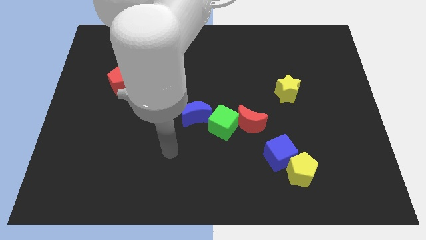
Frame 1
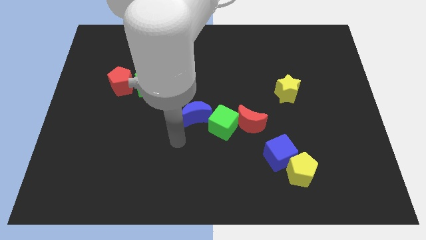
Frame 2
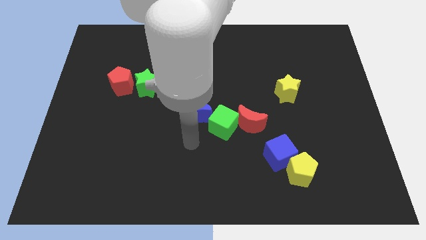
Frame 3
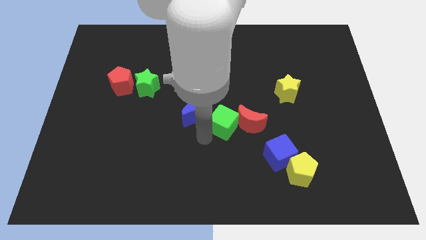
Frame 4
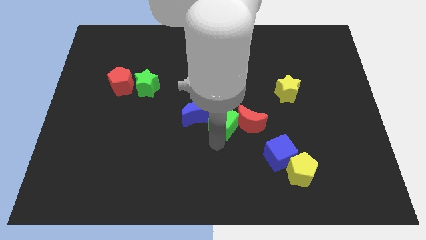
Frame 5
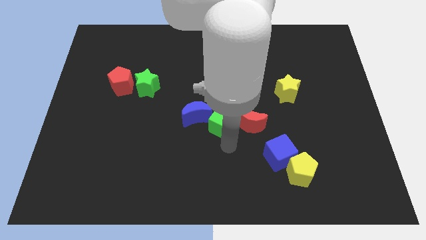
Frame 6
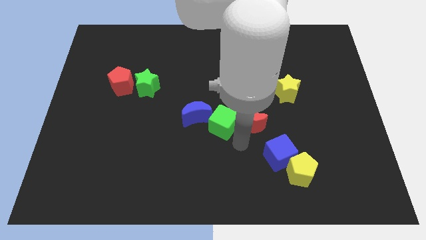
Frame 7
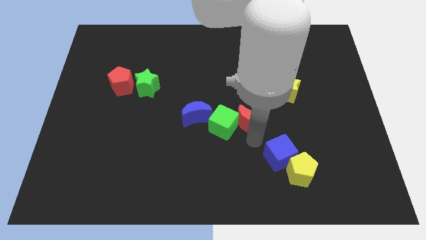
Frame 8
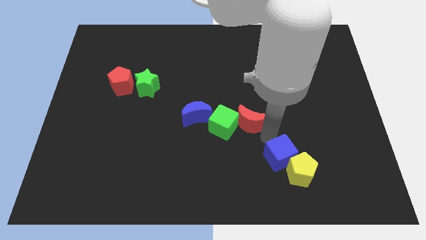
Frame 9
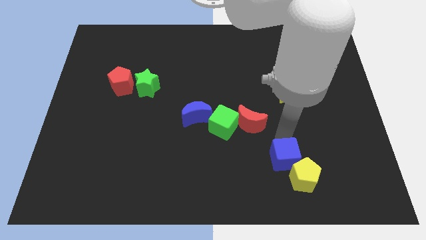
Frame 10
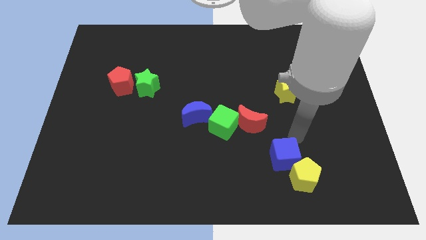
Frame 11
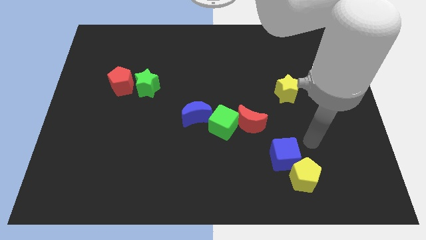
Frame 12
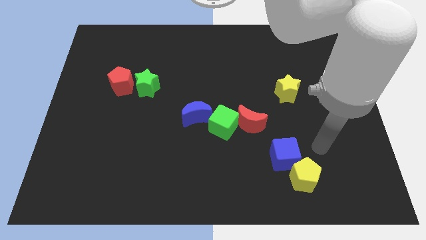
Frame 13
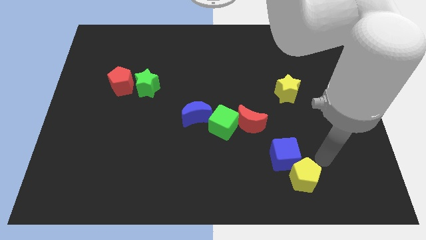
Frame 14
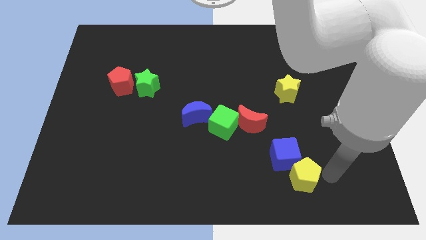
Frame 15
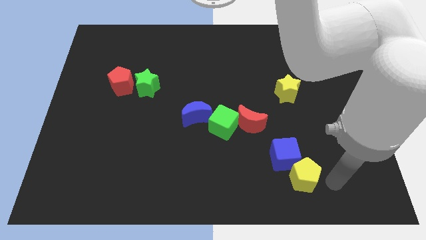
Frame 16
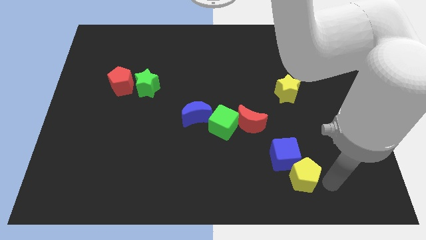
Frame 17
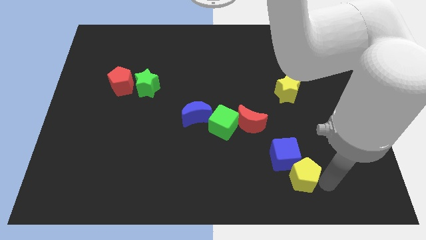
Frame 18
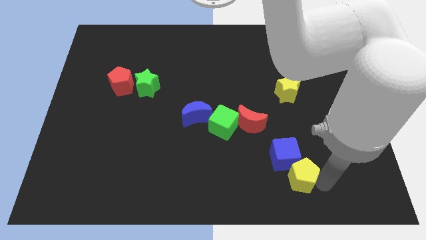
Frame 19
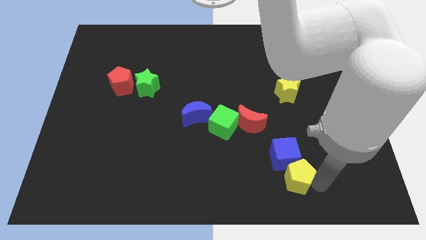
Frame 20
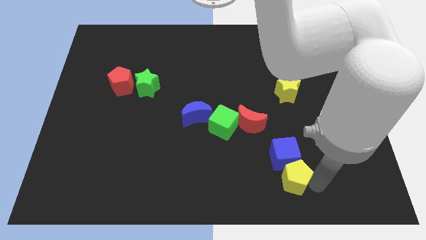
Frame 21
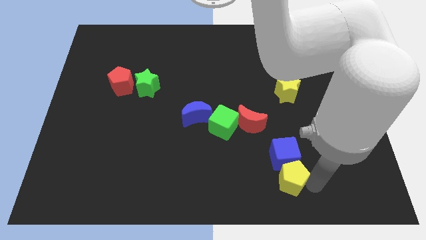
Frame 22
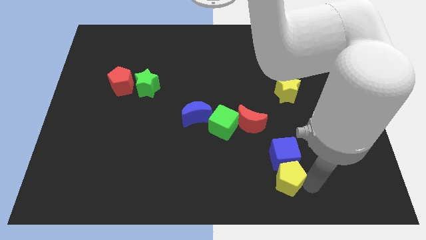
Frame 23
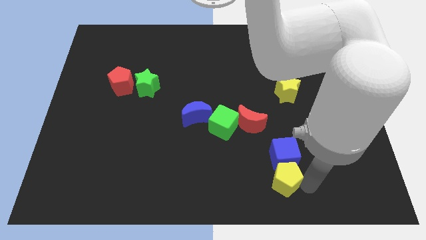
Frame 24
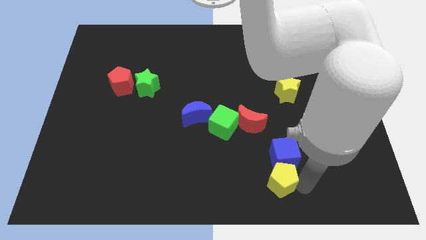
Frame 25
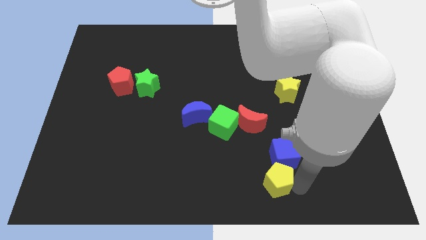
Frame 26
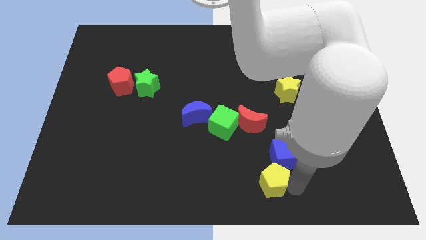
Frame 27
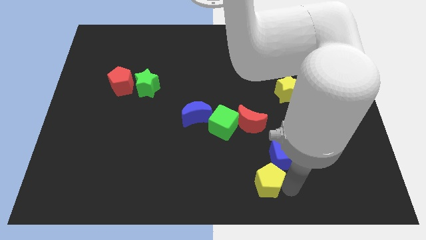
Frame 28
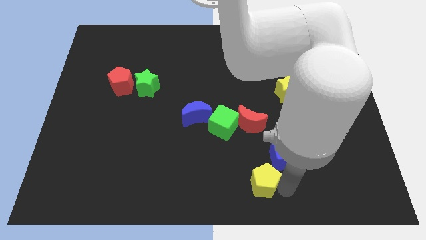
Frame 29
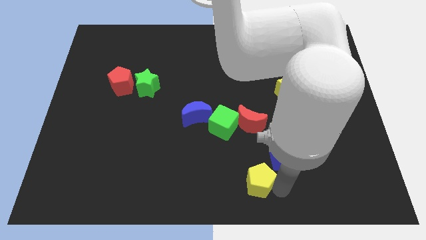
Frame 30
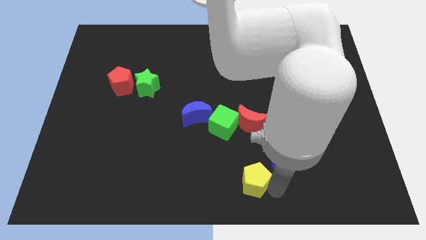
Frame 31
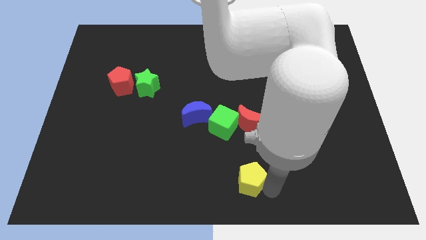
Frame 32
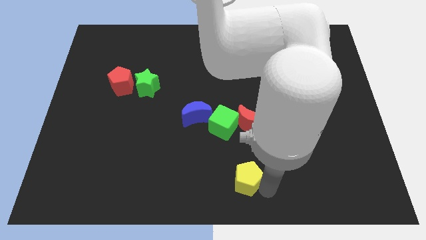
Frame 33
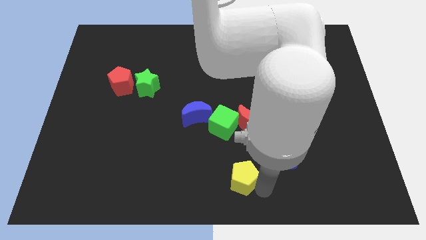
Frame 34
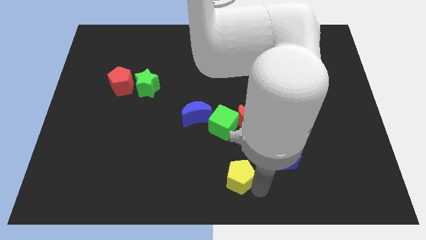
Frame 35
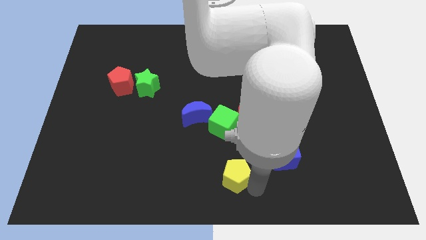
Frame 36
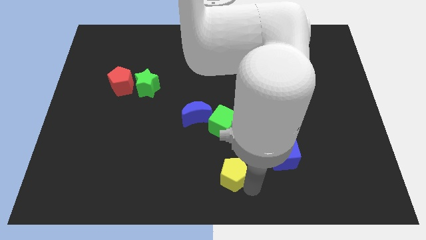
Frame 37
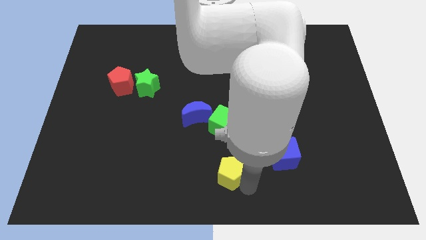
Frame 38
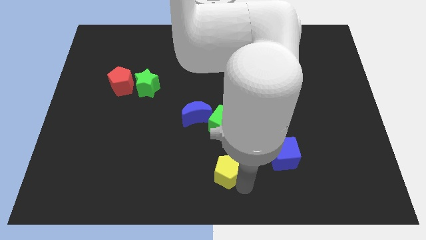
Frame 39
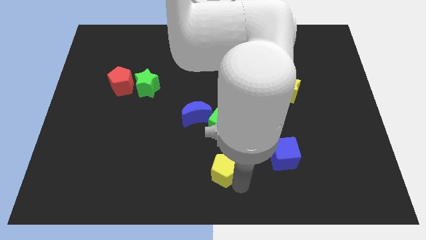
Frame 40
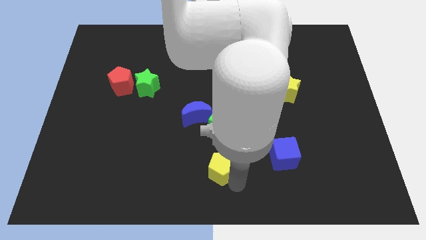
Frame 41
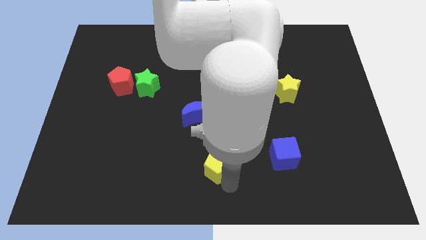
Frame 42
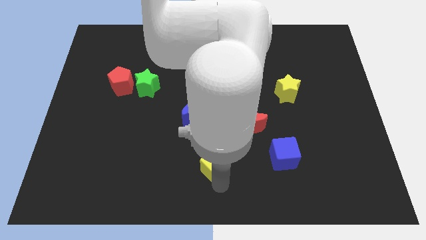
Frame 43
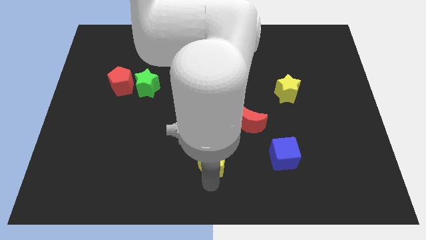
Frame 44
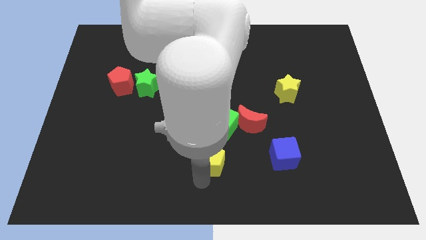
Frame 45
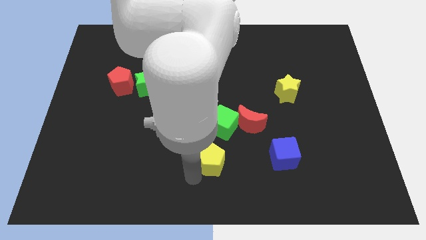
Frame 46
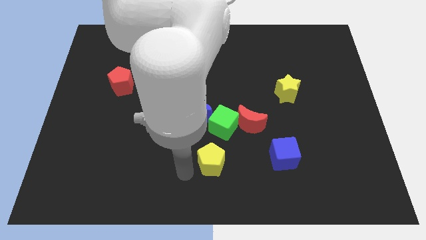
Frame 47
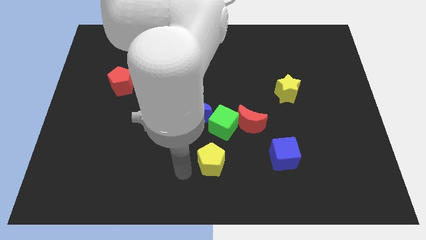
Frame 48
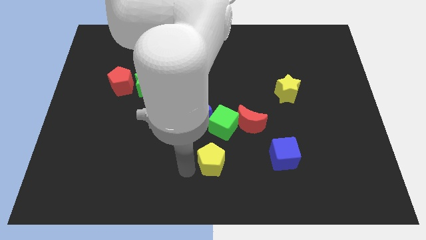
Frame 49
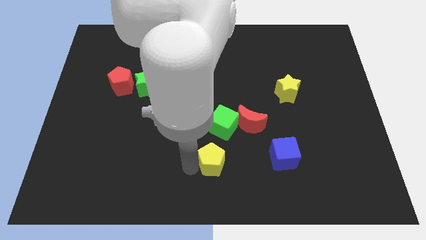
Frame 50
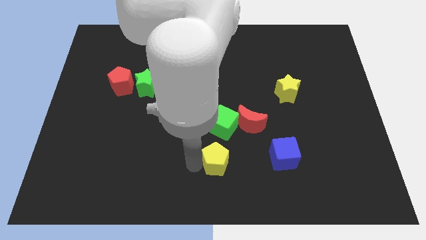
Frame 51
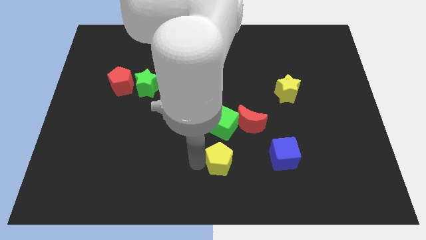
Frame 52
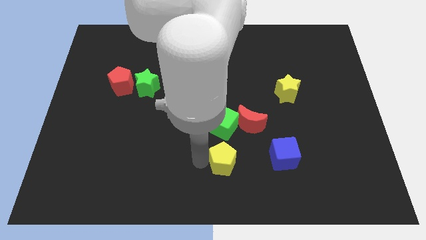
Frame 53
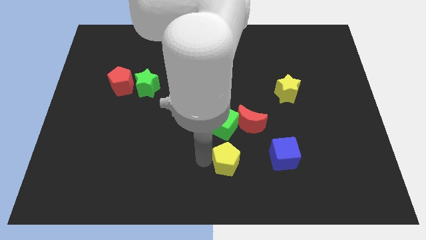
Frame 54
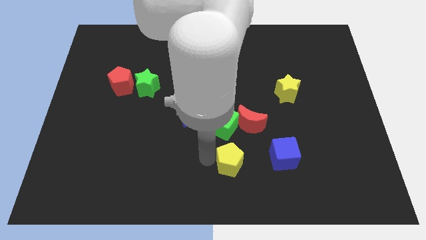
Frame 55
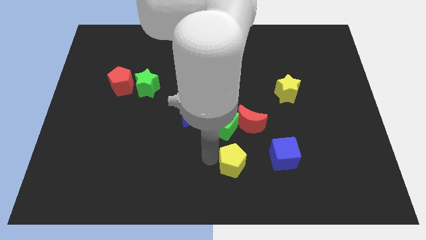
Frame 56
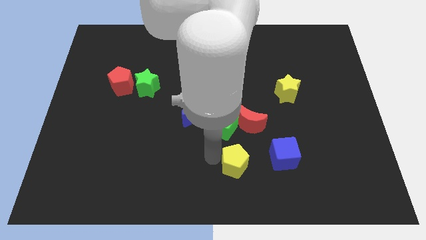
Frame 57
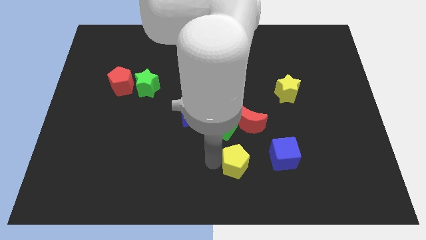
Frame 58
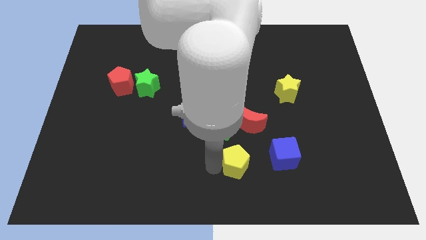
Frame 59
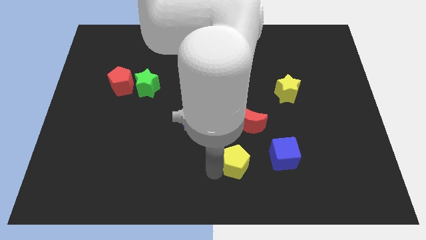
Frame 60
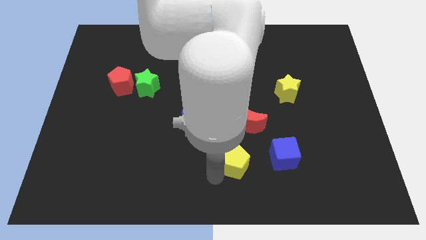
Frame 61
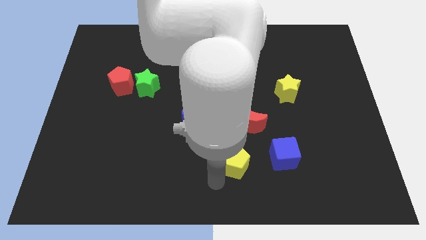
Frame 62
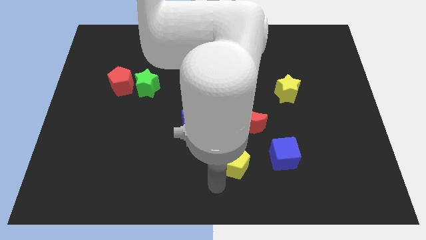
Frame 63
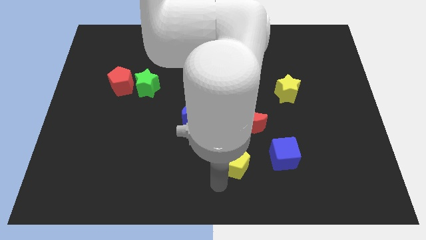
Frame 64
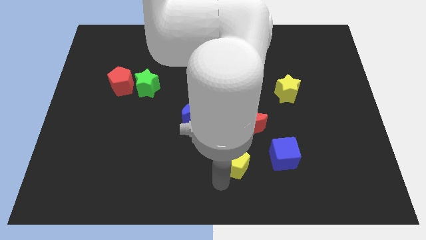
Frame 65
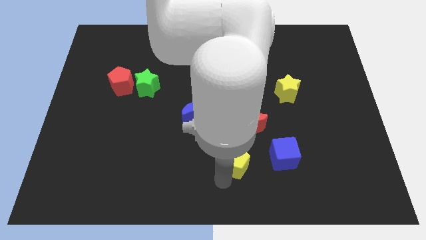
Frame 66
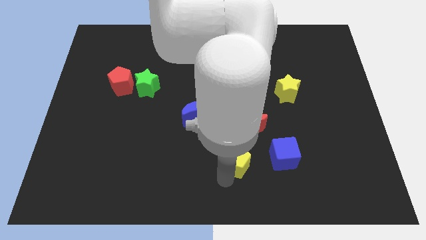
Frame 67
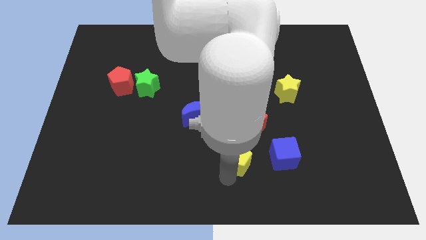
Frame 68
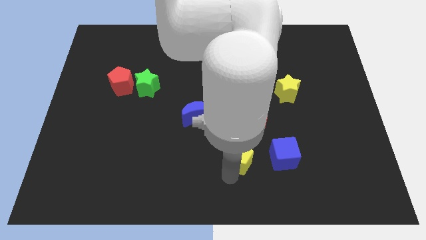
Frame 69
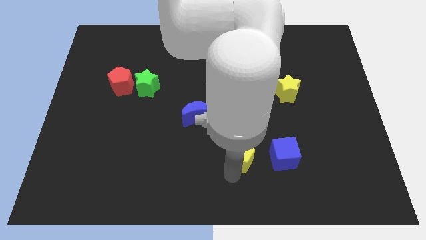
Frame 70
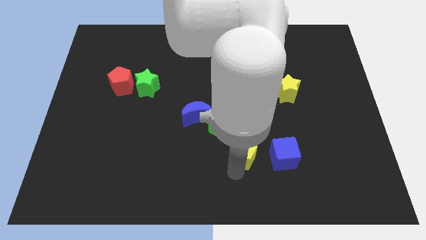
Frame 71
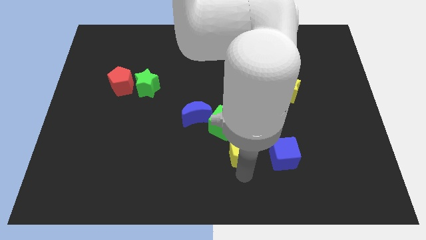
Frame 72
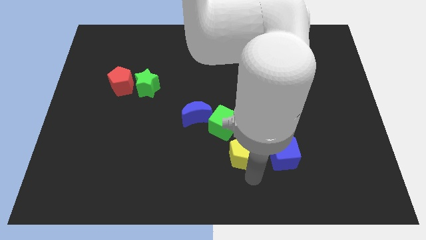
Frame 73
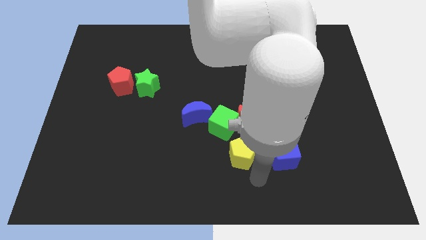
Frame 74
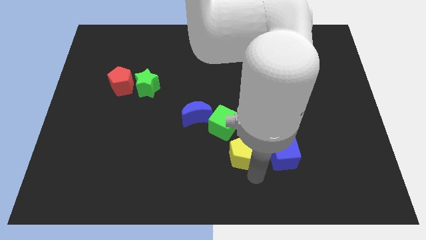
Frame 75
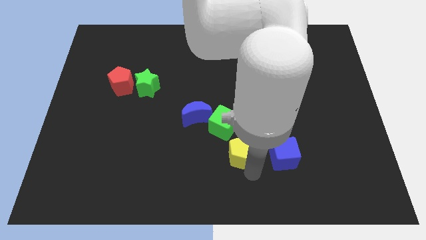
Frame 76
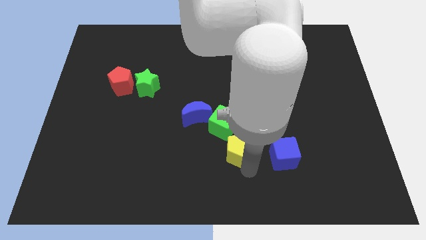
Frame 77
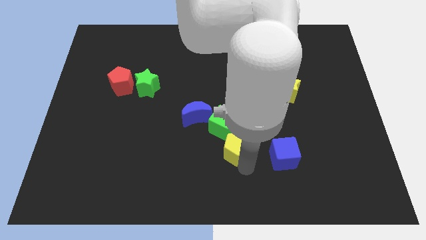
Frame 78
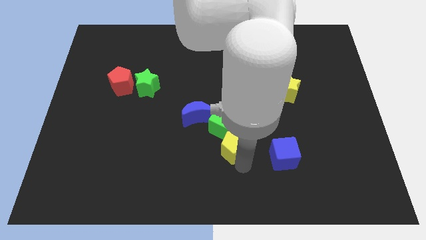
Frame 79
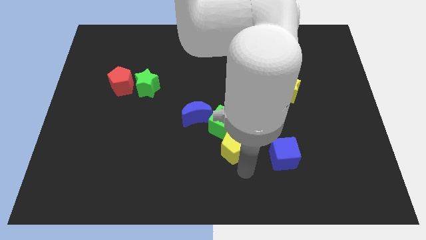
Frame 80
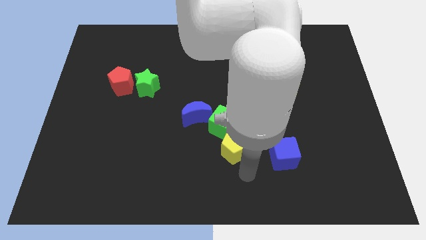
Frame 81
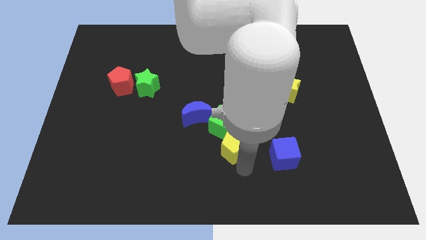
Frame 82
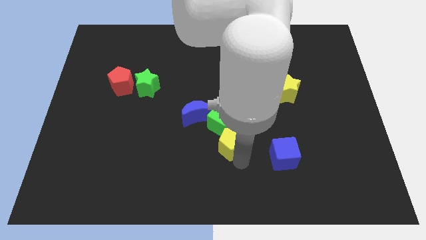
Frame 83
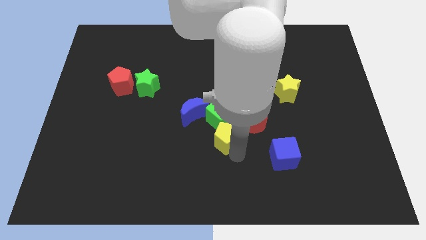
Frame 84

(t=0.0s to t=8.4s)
move the yellow pentagon to the green cube
